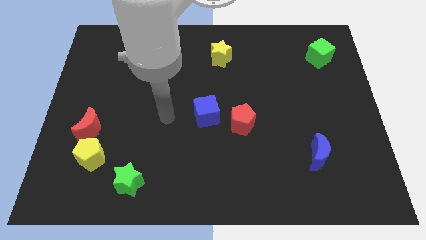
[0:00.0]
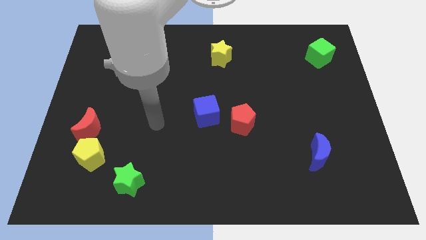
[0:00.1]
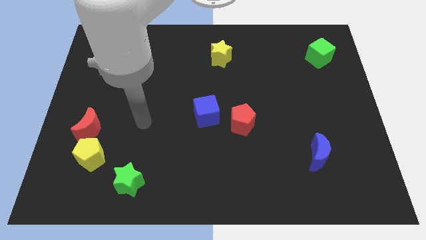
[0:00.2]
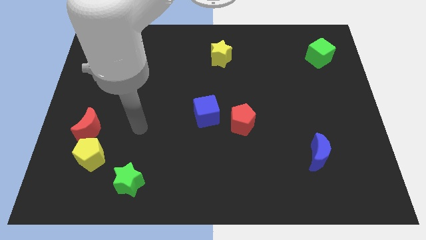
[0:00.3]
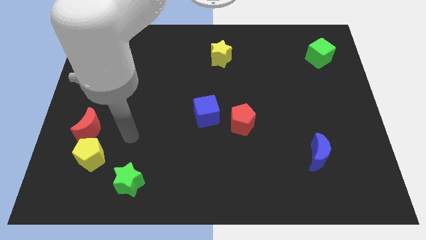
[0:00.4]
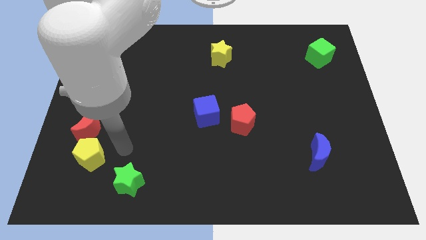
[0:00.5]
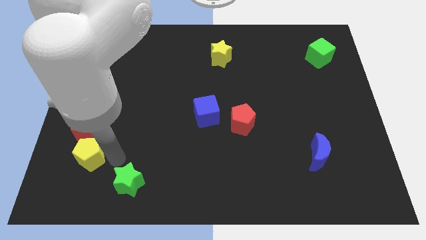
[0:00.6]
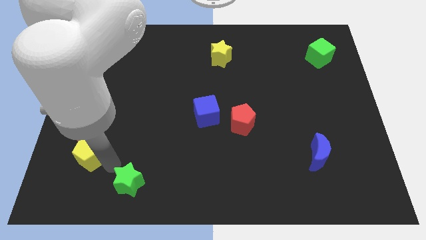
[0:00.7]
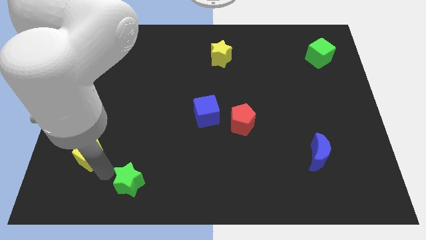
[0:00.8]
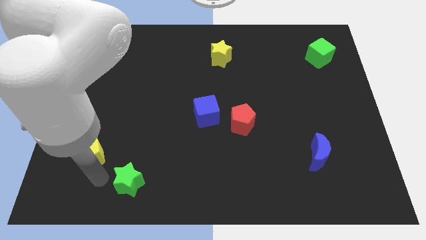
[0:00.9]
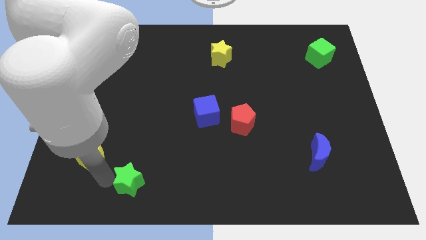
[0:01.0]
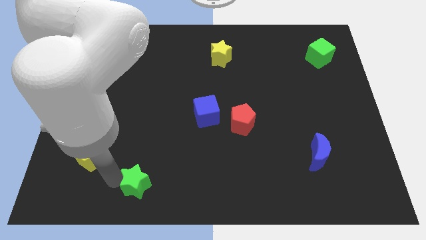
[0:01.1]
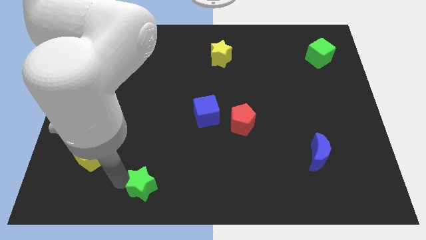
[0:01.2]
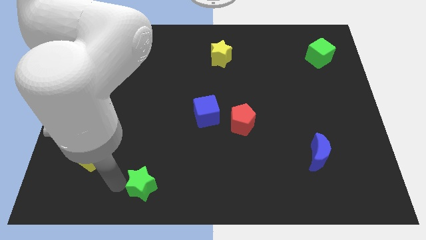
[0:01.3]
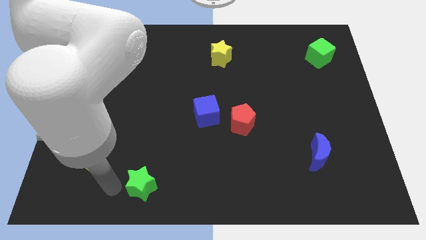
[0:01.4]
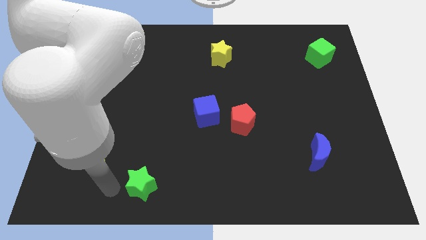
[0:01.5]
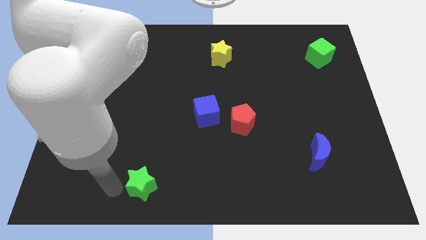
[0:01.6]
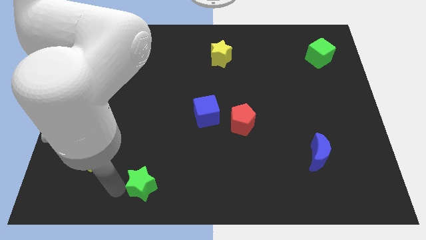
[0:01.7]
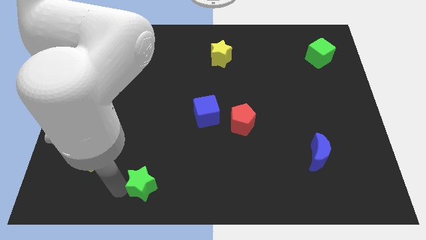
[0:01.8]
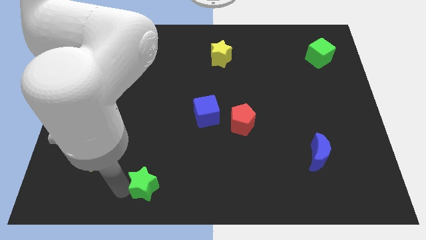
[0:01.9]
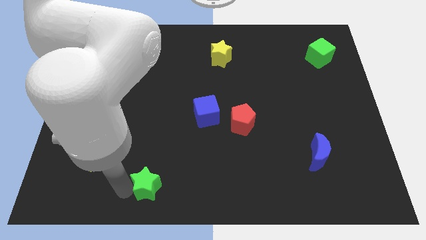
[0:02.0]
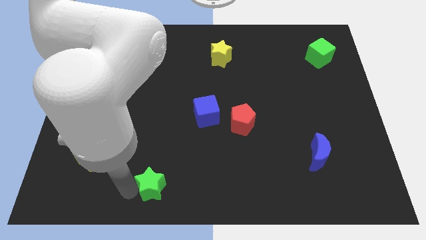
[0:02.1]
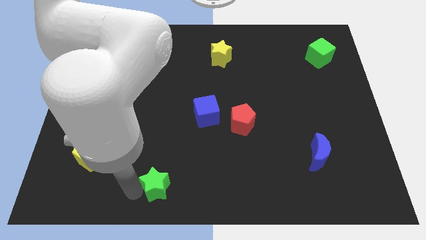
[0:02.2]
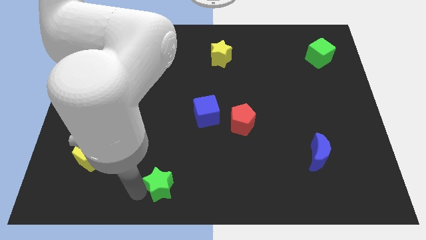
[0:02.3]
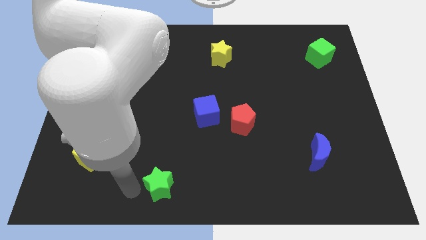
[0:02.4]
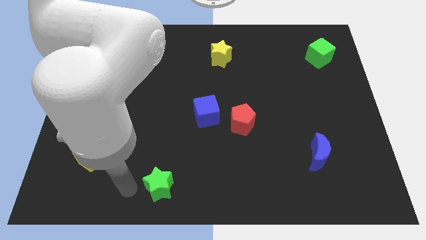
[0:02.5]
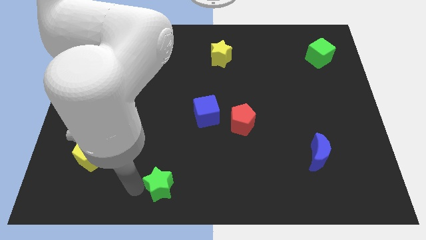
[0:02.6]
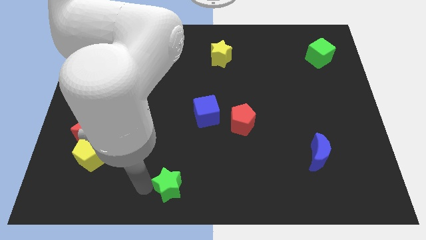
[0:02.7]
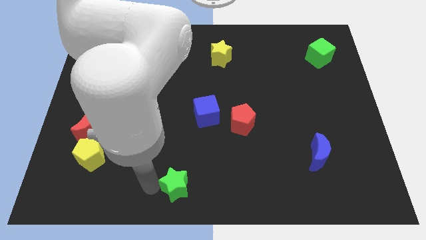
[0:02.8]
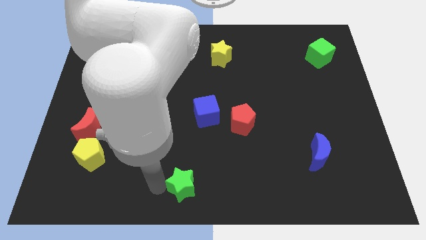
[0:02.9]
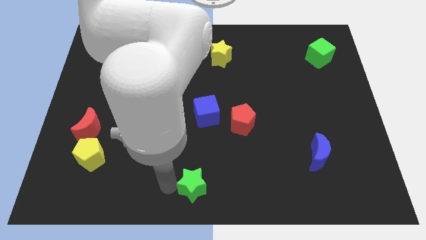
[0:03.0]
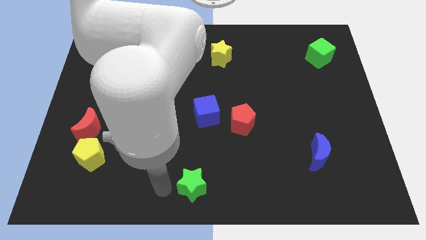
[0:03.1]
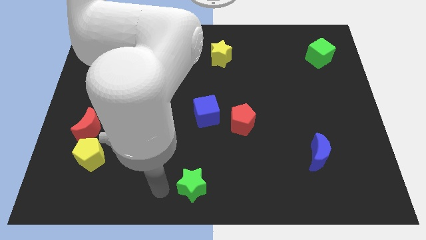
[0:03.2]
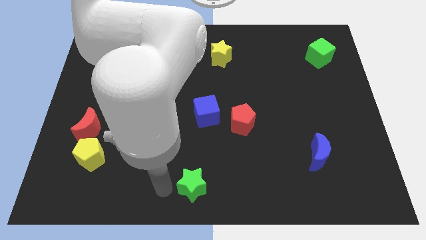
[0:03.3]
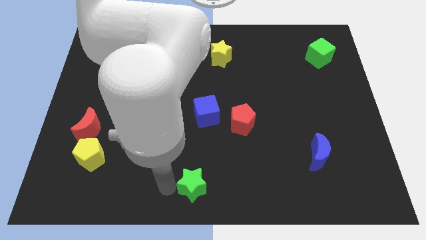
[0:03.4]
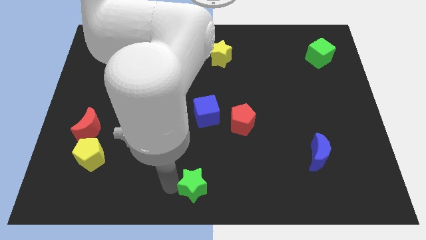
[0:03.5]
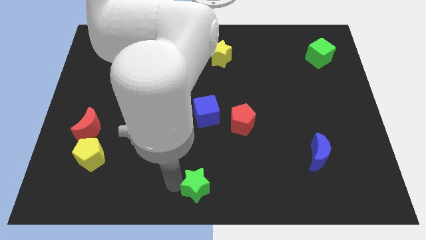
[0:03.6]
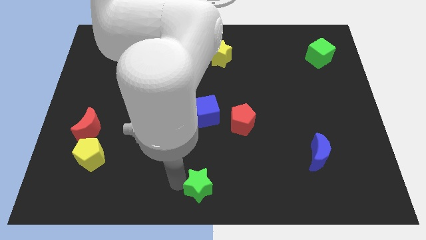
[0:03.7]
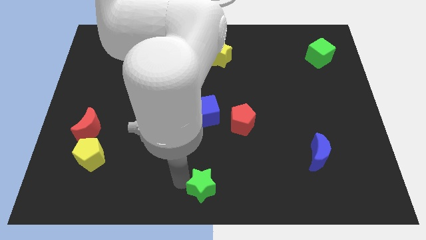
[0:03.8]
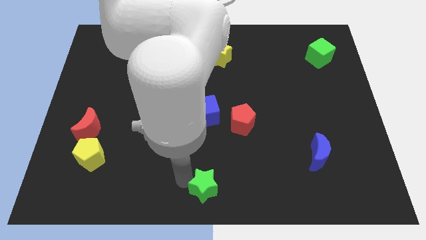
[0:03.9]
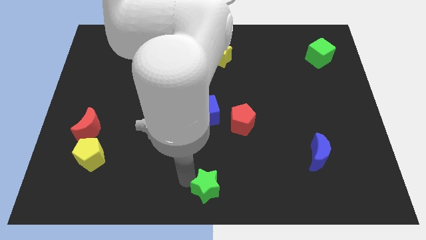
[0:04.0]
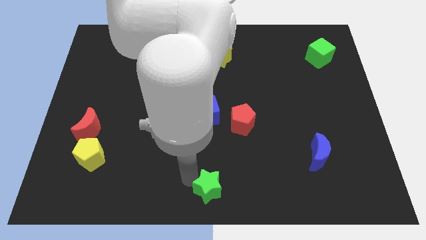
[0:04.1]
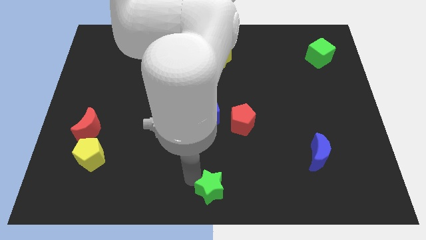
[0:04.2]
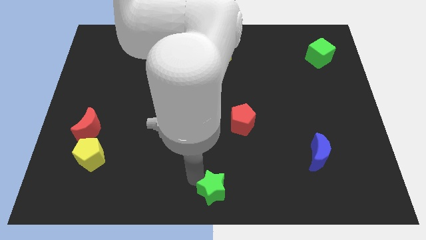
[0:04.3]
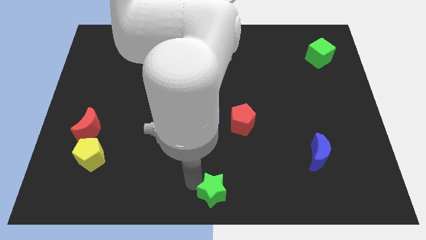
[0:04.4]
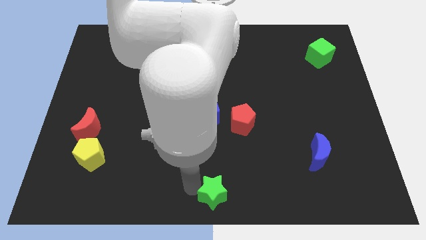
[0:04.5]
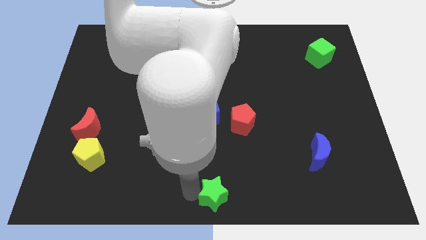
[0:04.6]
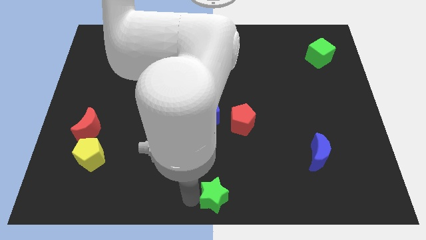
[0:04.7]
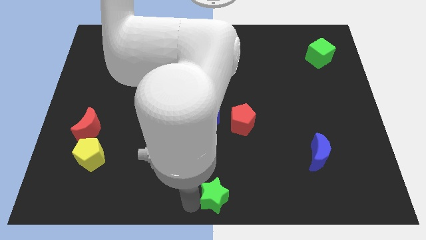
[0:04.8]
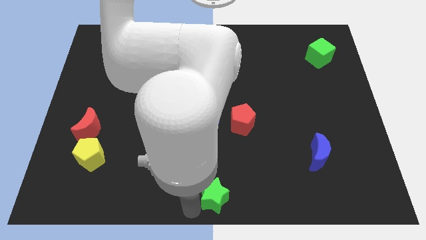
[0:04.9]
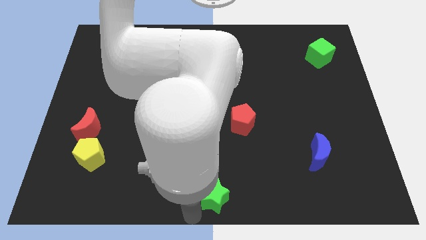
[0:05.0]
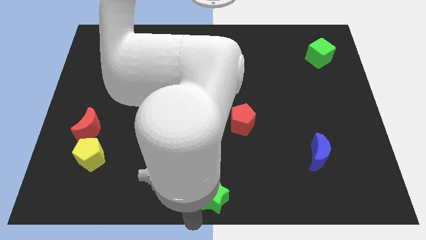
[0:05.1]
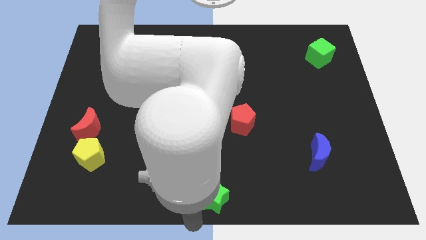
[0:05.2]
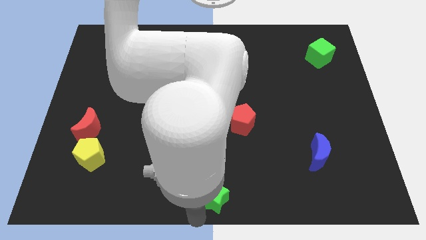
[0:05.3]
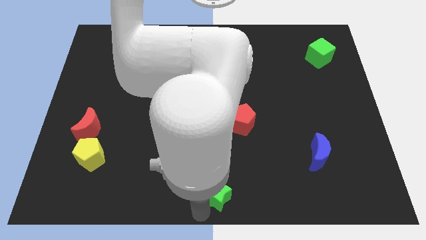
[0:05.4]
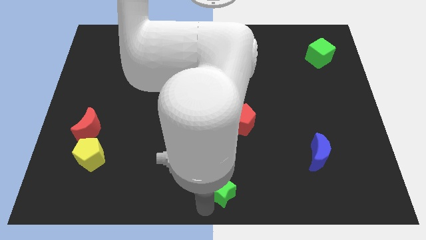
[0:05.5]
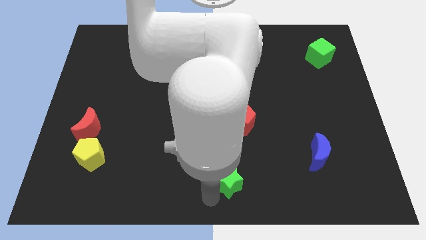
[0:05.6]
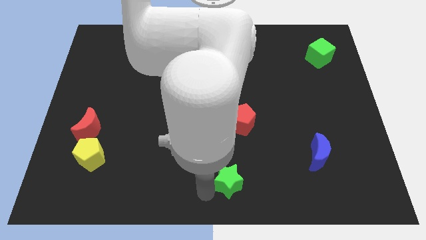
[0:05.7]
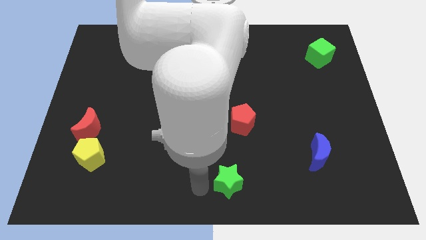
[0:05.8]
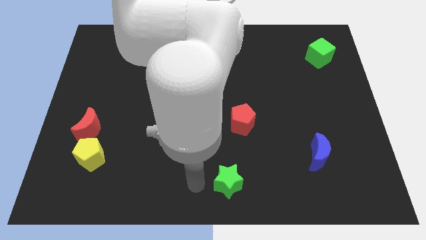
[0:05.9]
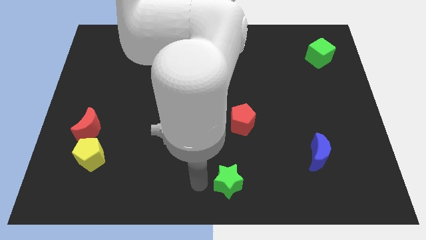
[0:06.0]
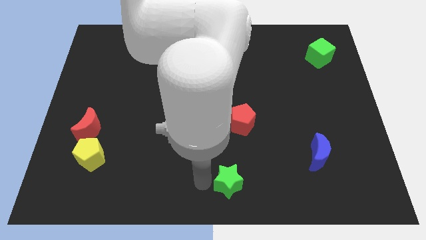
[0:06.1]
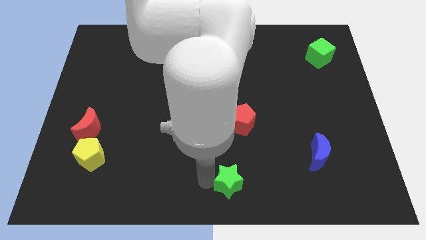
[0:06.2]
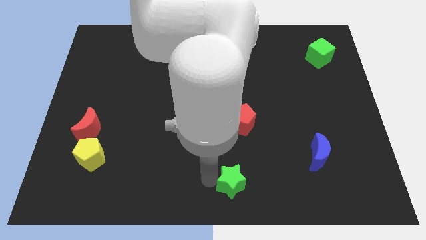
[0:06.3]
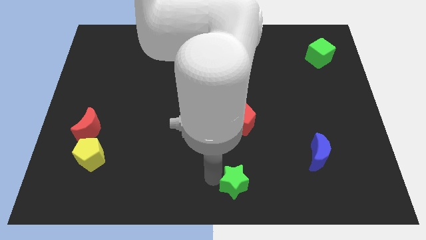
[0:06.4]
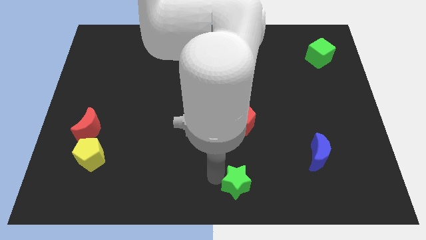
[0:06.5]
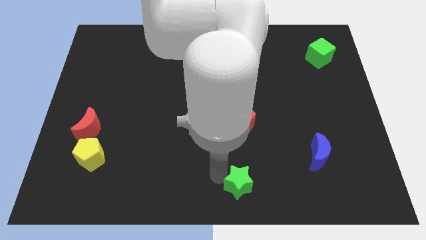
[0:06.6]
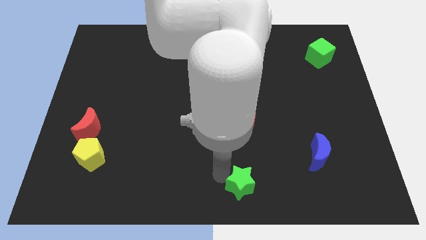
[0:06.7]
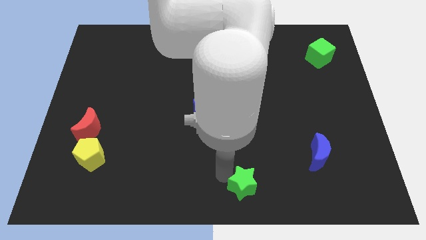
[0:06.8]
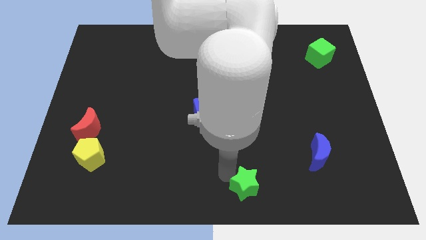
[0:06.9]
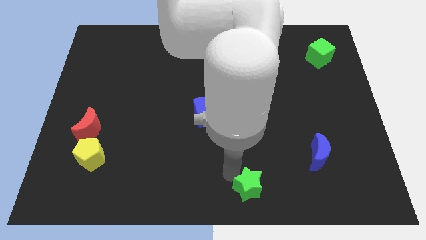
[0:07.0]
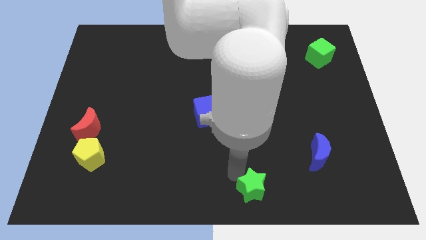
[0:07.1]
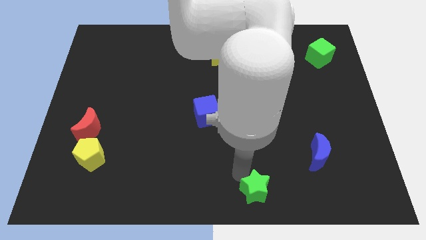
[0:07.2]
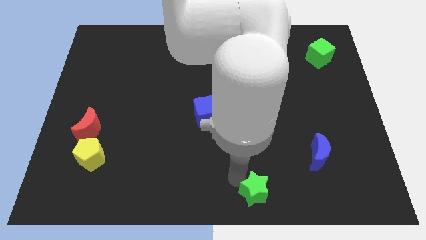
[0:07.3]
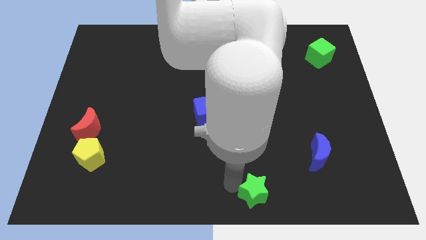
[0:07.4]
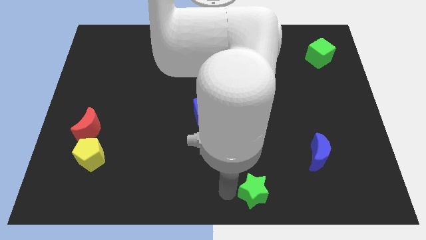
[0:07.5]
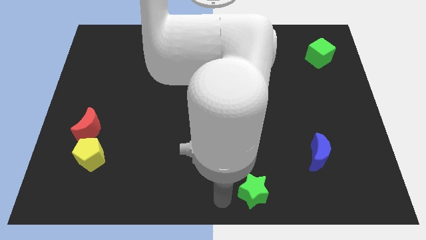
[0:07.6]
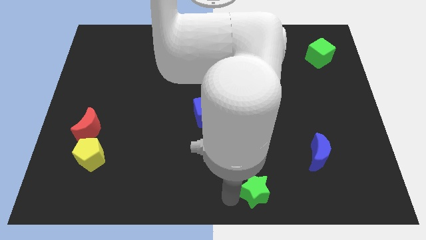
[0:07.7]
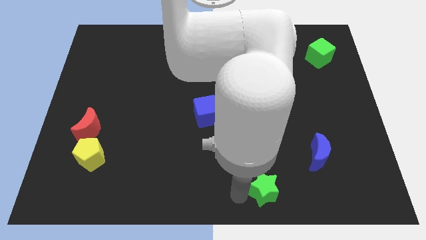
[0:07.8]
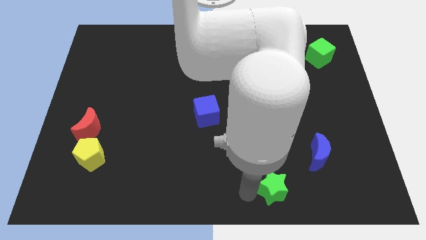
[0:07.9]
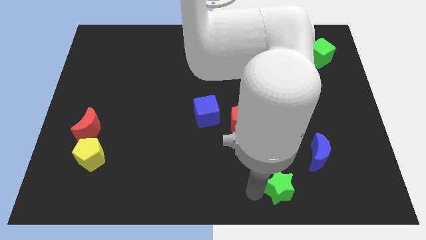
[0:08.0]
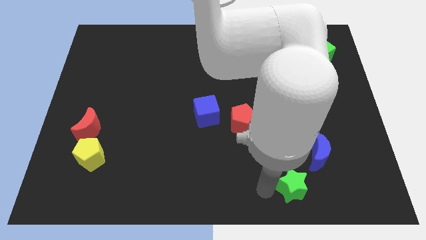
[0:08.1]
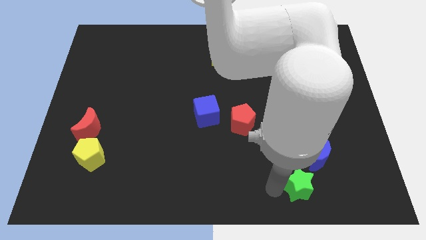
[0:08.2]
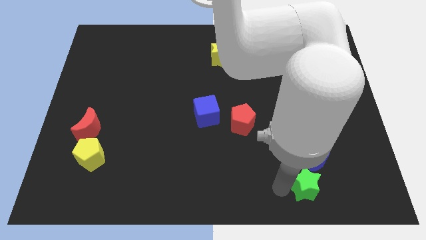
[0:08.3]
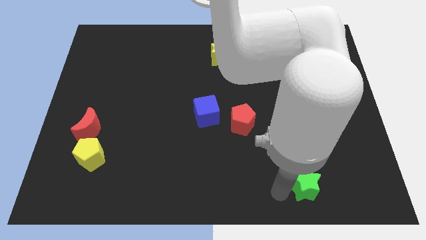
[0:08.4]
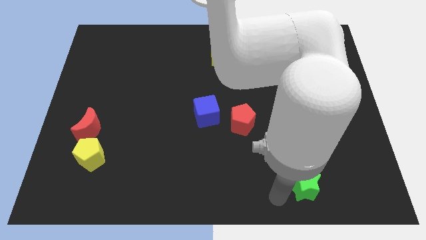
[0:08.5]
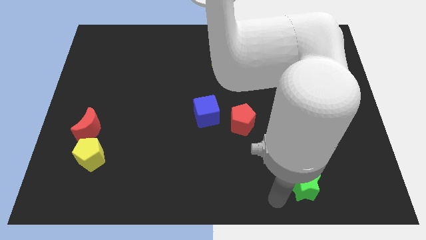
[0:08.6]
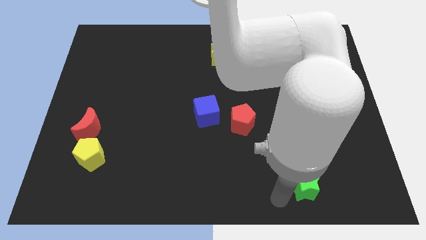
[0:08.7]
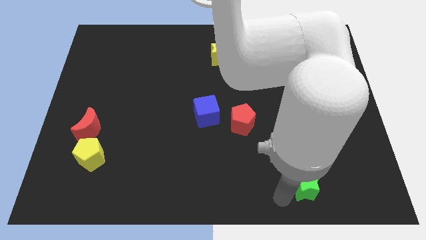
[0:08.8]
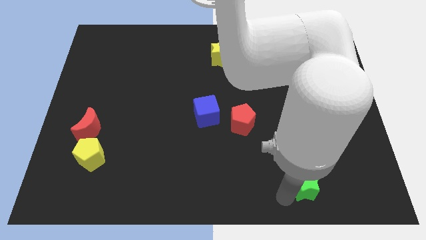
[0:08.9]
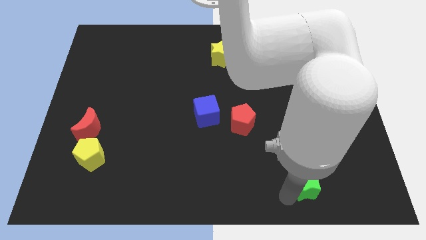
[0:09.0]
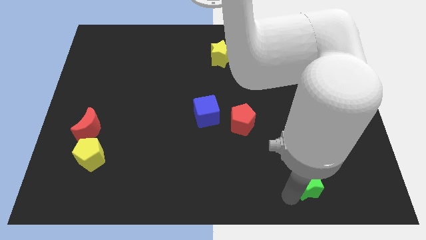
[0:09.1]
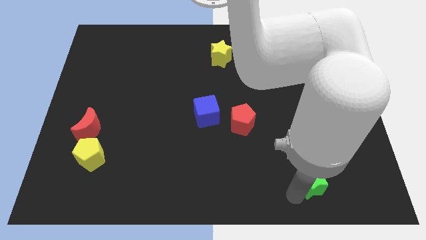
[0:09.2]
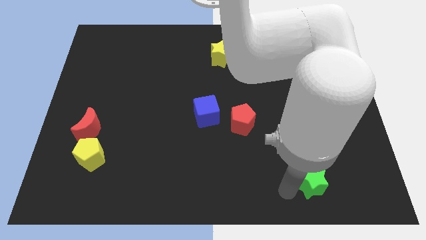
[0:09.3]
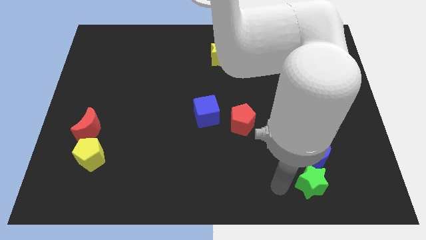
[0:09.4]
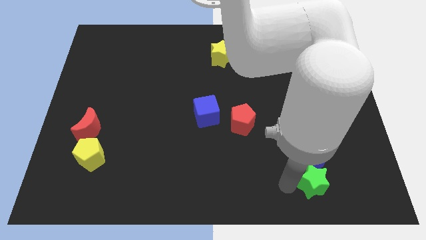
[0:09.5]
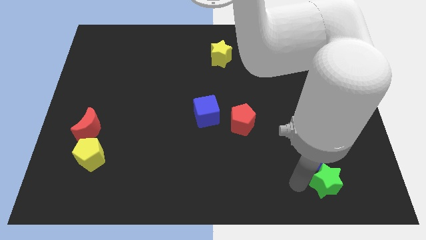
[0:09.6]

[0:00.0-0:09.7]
push the green star diagonally down and to the right of the blue moon
